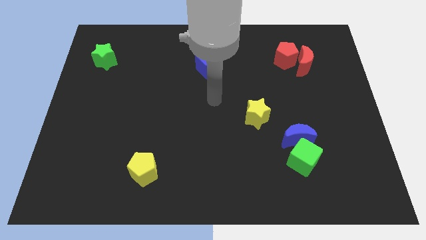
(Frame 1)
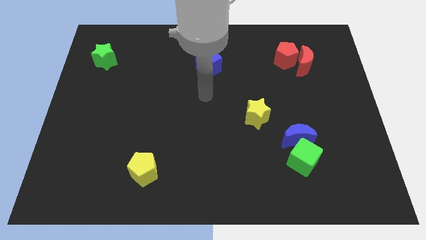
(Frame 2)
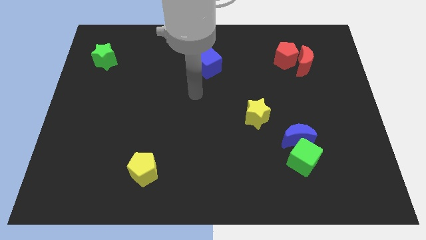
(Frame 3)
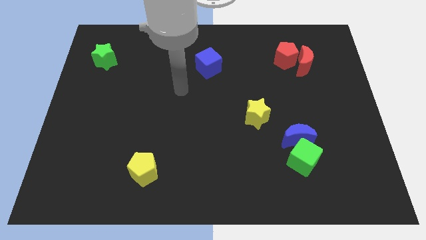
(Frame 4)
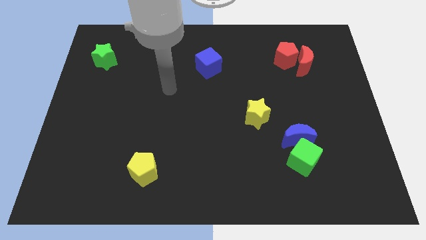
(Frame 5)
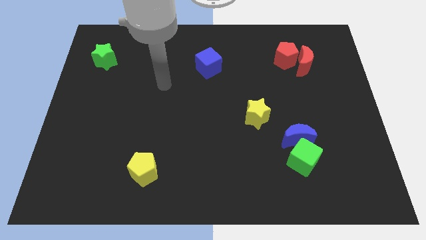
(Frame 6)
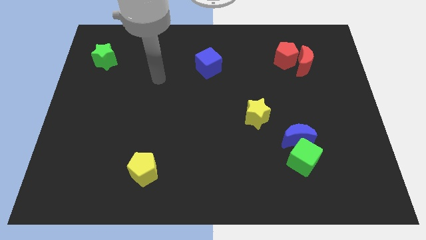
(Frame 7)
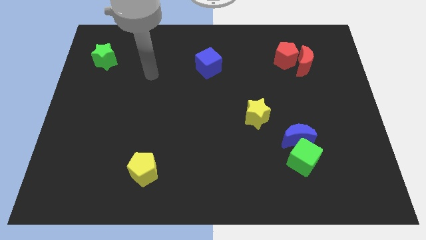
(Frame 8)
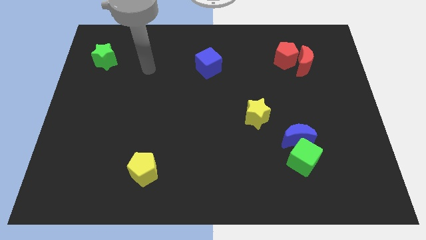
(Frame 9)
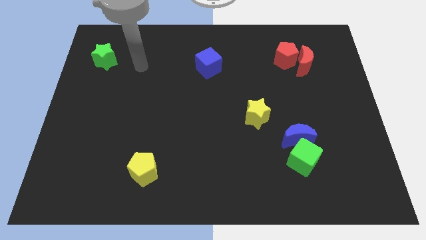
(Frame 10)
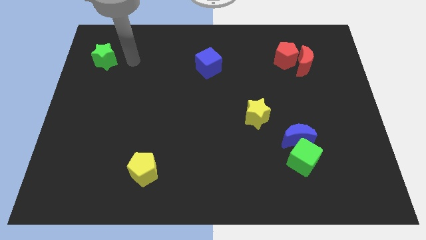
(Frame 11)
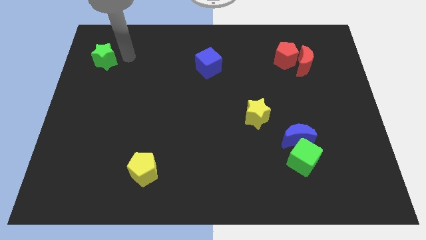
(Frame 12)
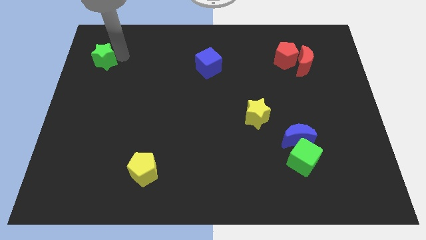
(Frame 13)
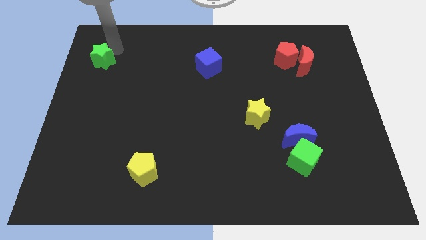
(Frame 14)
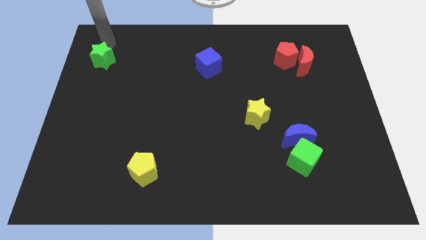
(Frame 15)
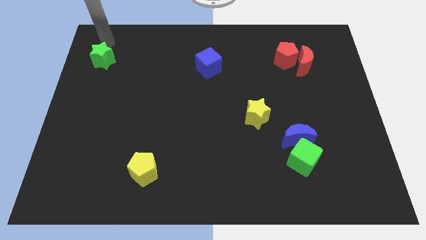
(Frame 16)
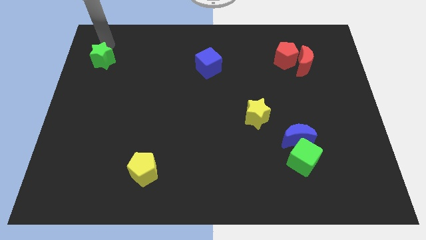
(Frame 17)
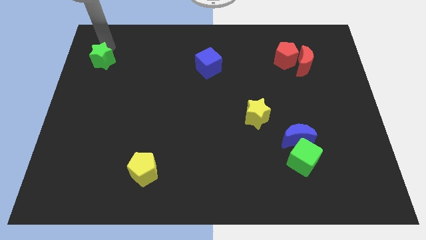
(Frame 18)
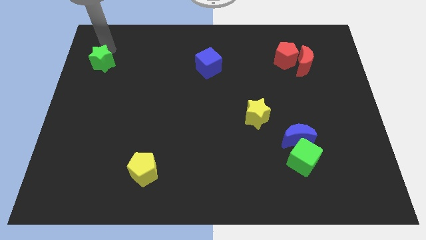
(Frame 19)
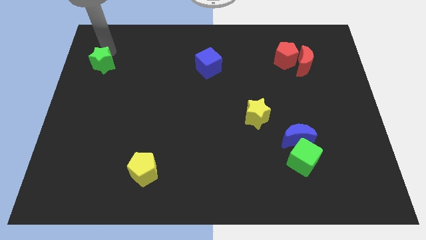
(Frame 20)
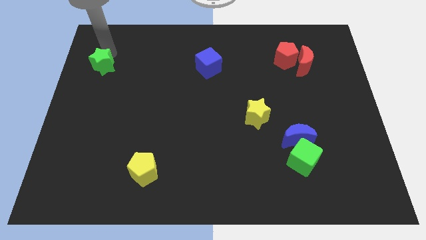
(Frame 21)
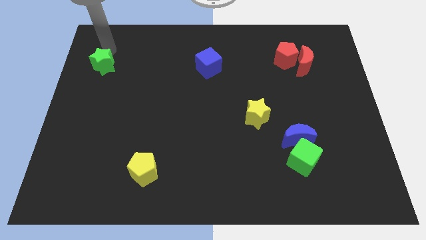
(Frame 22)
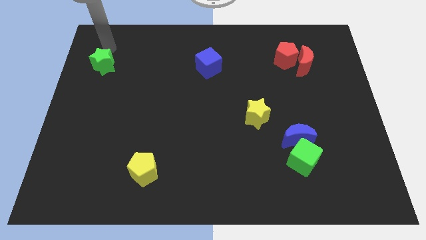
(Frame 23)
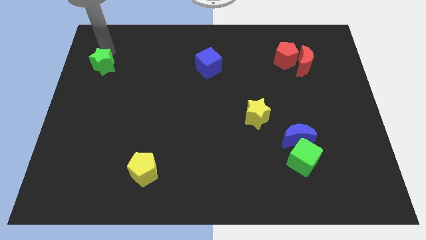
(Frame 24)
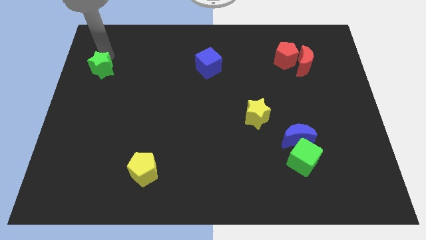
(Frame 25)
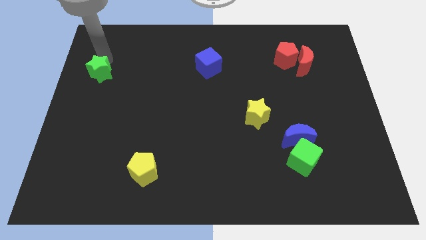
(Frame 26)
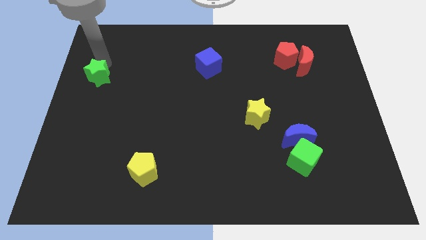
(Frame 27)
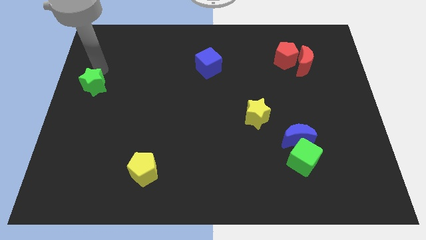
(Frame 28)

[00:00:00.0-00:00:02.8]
push the green star down somewhat

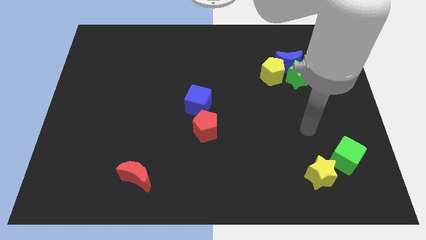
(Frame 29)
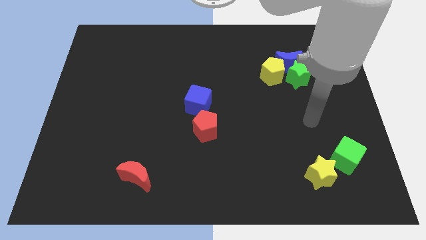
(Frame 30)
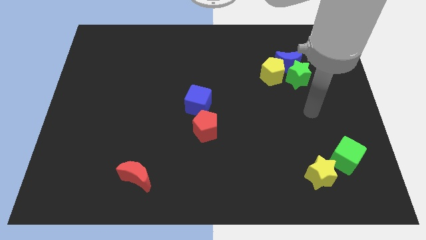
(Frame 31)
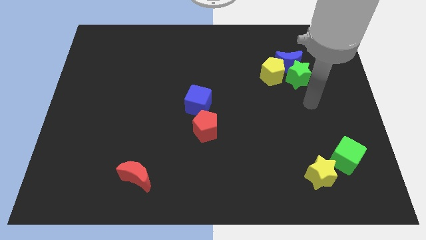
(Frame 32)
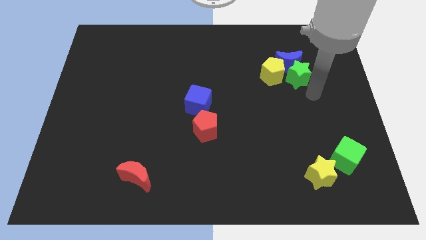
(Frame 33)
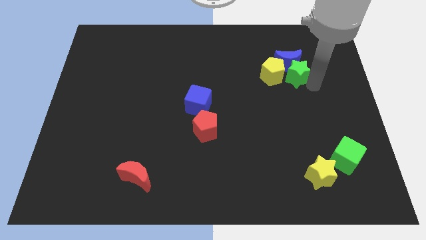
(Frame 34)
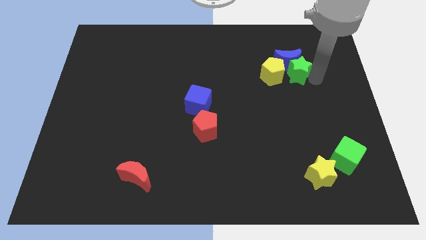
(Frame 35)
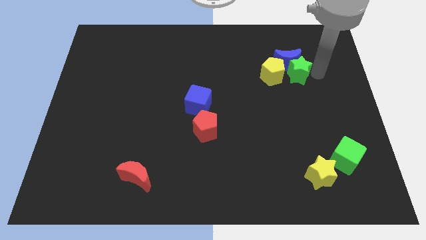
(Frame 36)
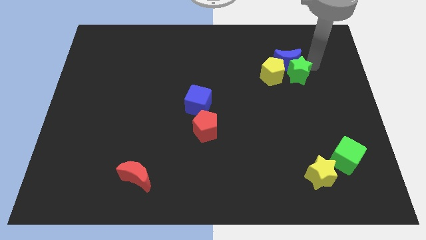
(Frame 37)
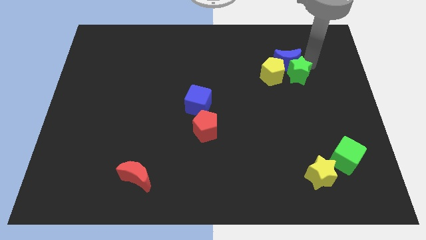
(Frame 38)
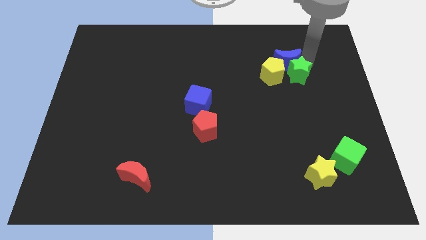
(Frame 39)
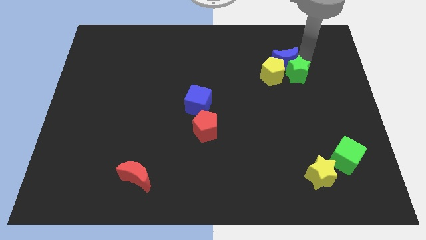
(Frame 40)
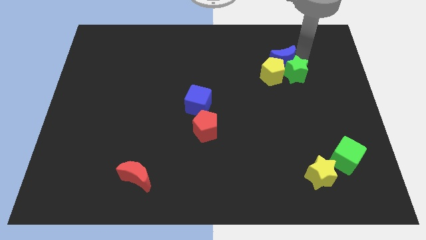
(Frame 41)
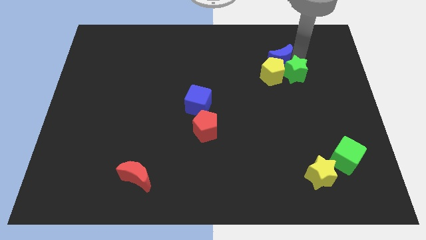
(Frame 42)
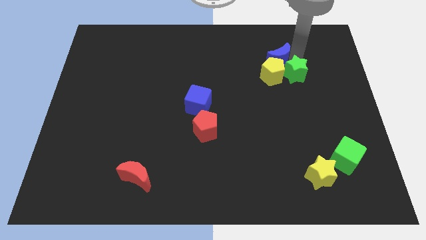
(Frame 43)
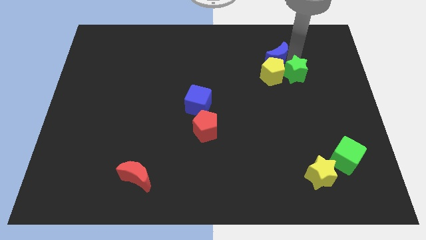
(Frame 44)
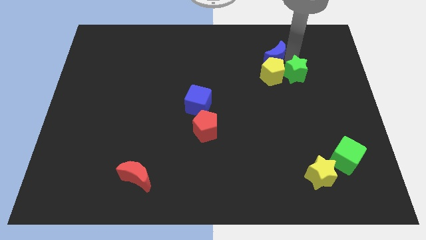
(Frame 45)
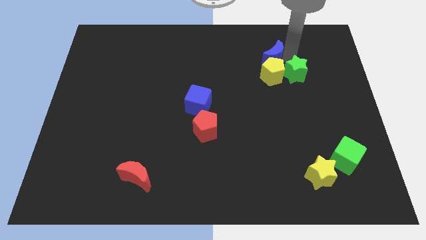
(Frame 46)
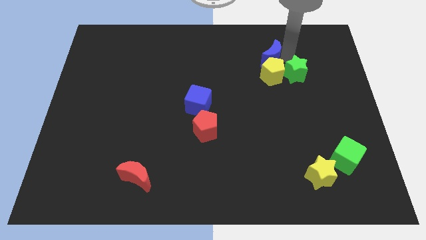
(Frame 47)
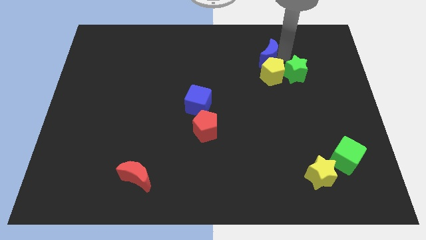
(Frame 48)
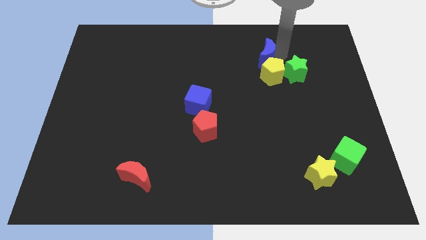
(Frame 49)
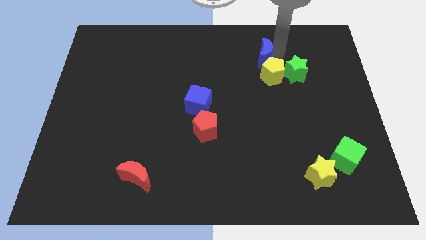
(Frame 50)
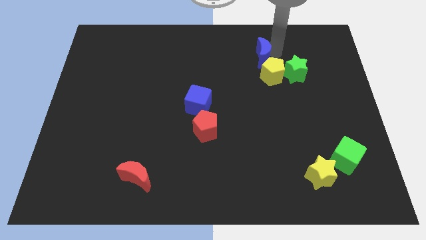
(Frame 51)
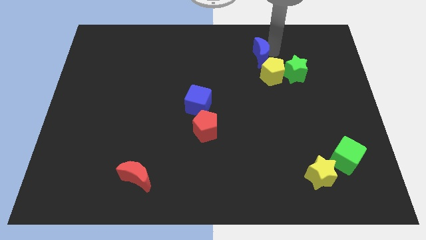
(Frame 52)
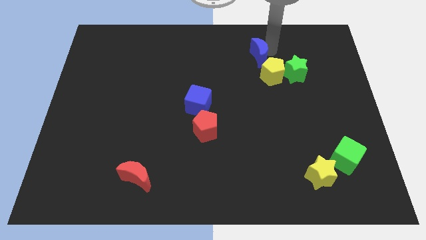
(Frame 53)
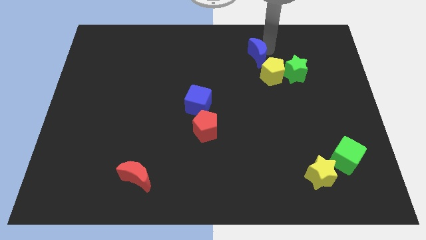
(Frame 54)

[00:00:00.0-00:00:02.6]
slightly slide the blue moon to the left

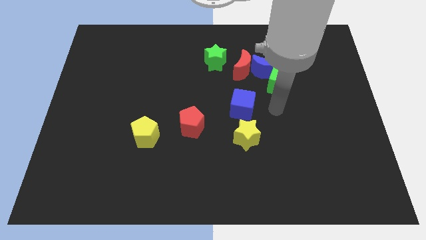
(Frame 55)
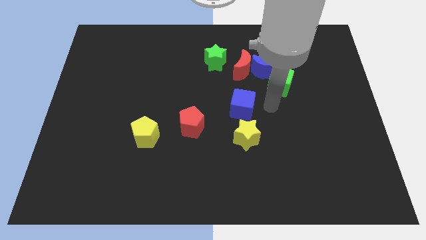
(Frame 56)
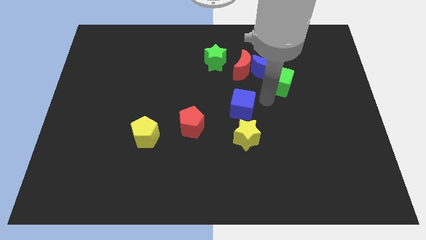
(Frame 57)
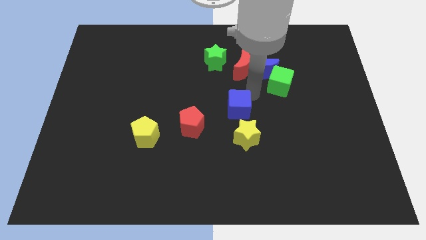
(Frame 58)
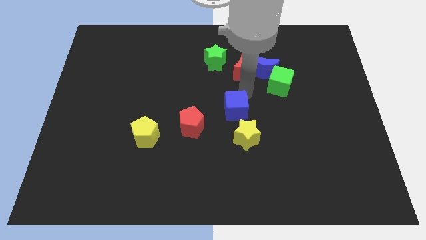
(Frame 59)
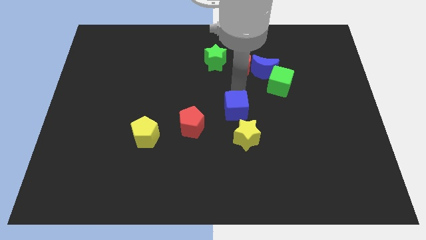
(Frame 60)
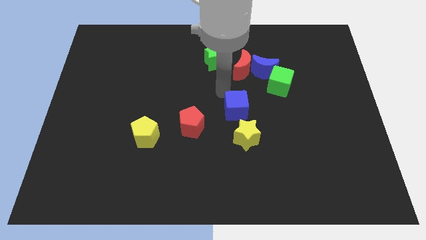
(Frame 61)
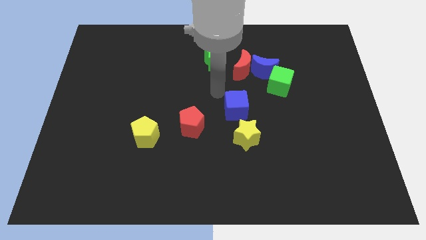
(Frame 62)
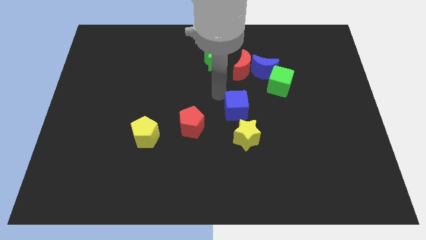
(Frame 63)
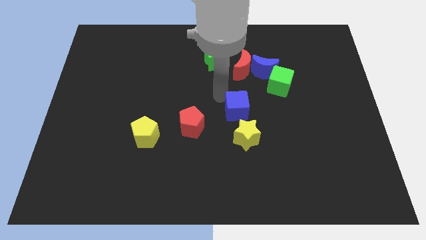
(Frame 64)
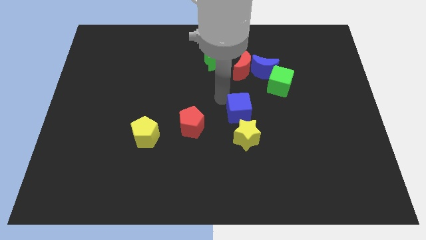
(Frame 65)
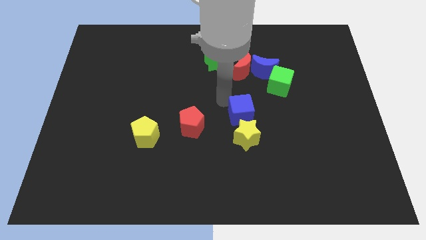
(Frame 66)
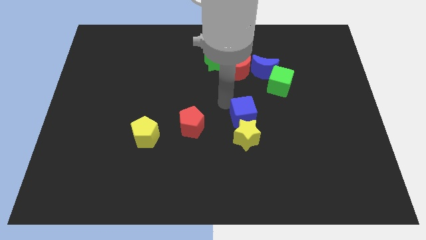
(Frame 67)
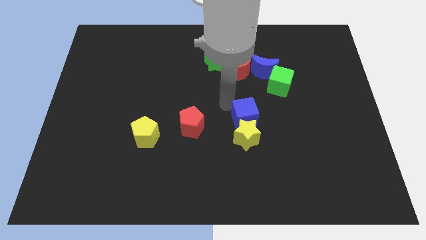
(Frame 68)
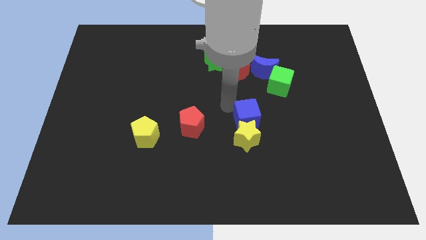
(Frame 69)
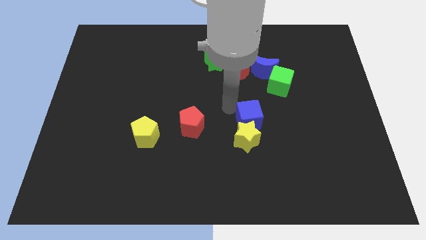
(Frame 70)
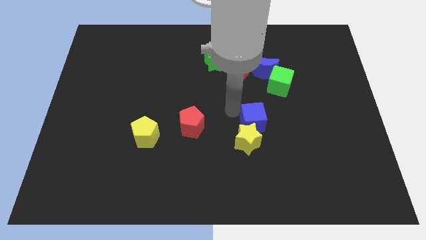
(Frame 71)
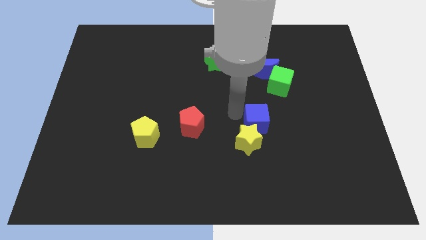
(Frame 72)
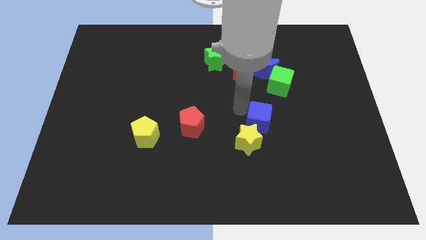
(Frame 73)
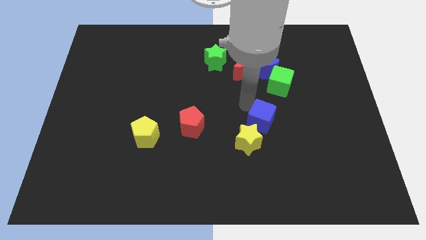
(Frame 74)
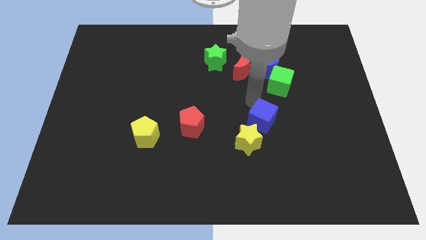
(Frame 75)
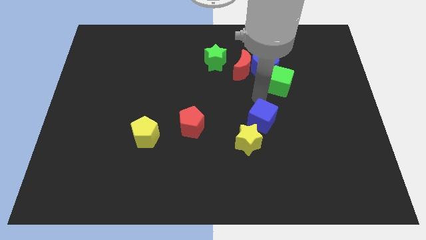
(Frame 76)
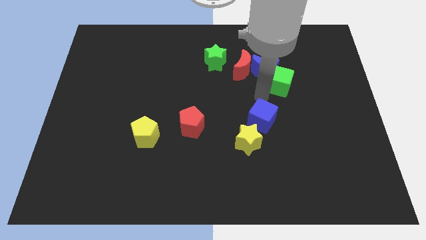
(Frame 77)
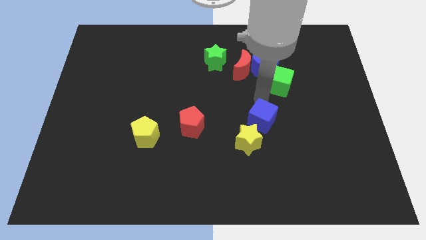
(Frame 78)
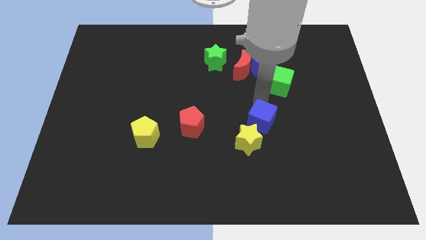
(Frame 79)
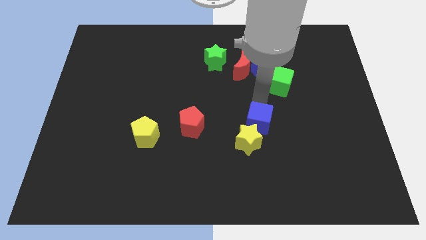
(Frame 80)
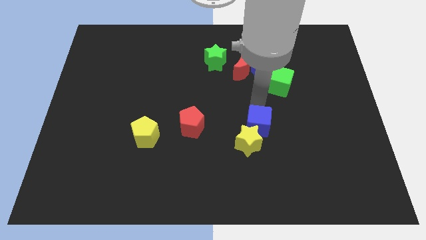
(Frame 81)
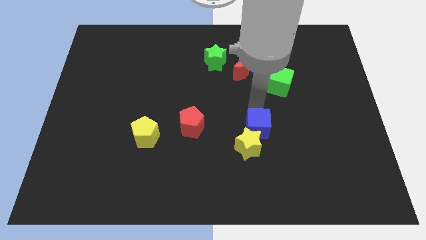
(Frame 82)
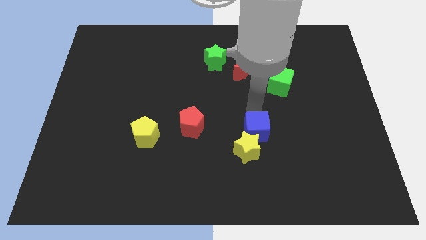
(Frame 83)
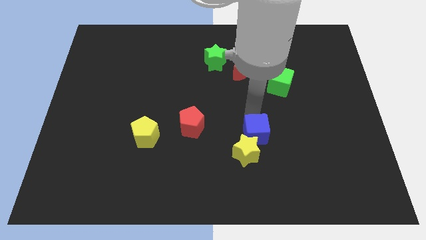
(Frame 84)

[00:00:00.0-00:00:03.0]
push the blue cube somewhat down
